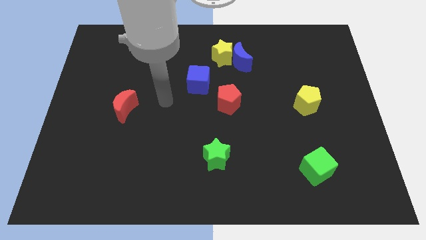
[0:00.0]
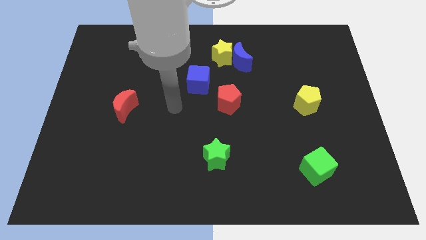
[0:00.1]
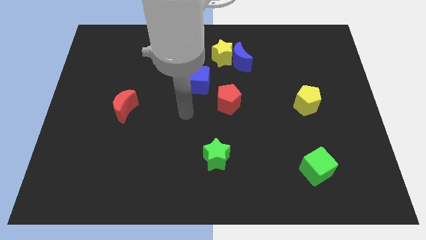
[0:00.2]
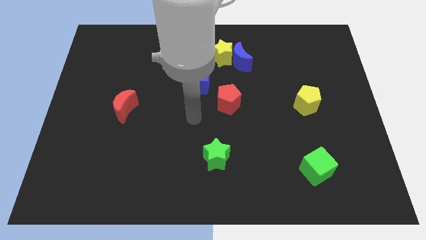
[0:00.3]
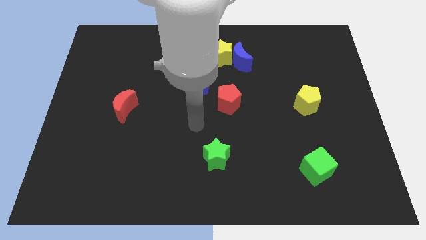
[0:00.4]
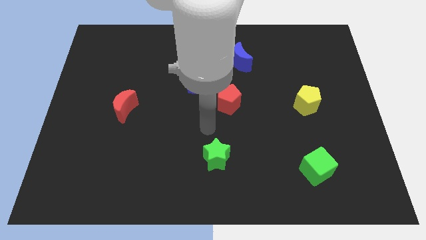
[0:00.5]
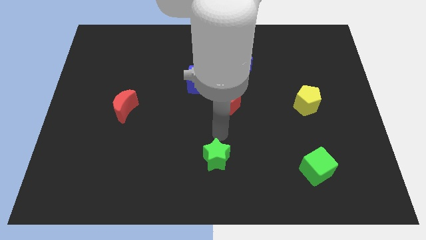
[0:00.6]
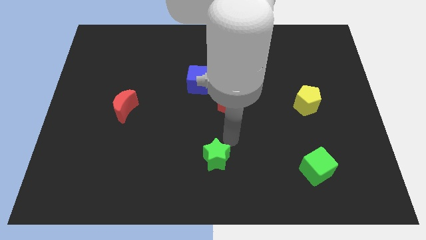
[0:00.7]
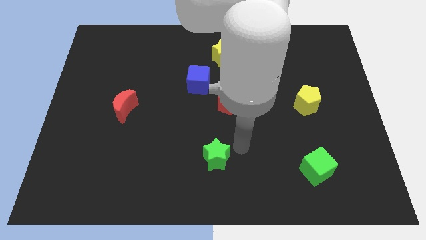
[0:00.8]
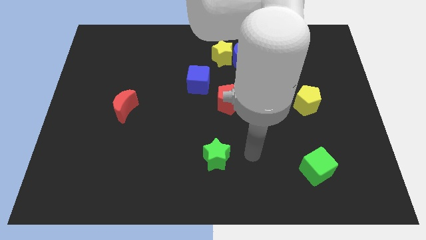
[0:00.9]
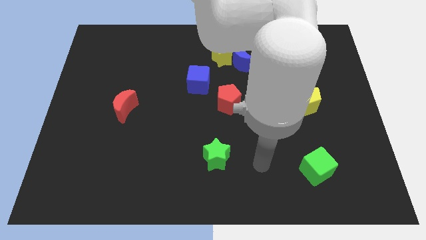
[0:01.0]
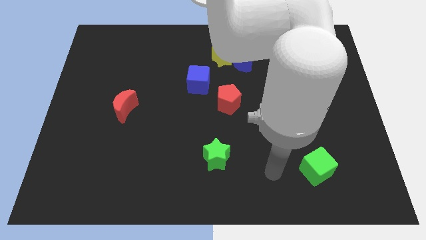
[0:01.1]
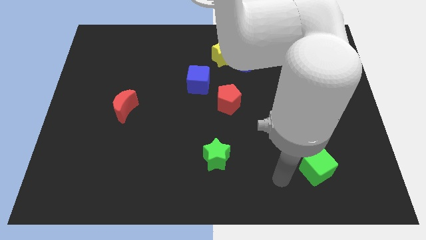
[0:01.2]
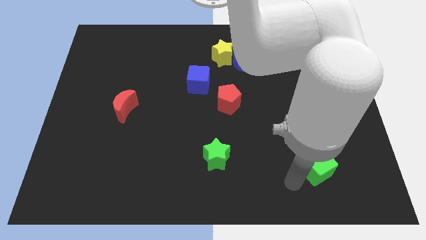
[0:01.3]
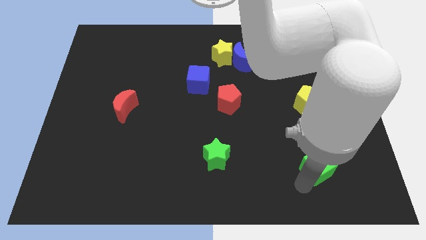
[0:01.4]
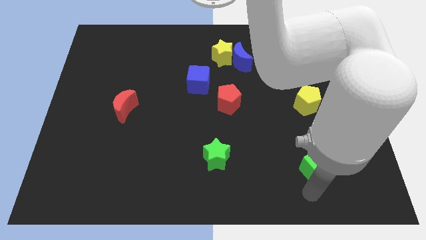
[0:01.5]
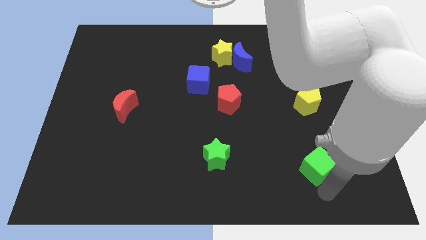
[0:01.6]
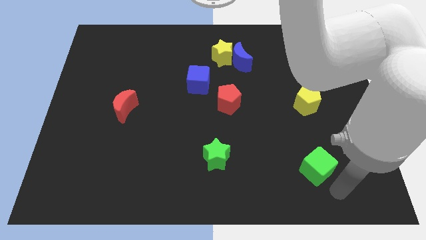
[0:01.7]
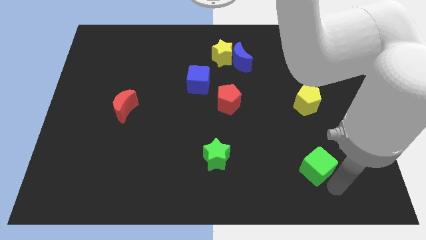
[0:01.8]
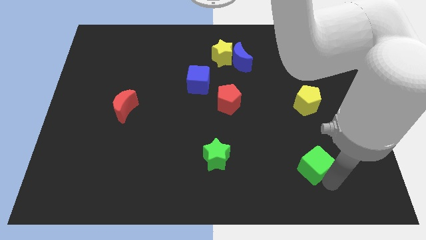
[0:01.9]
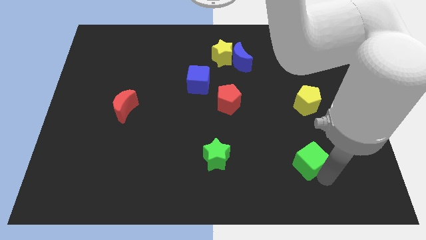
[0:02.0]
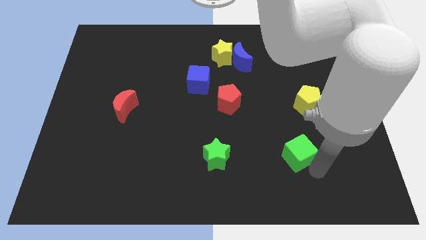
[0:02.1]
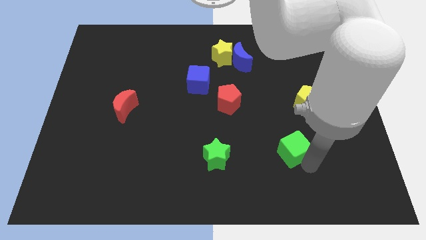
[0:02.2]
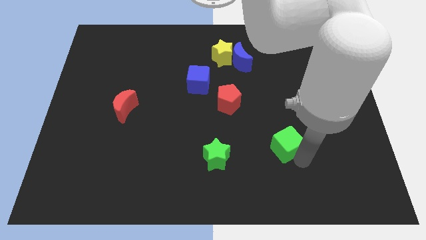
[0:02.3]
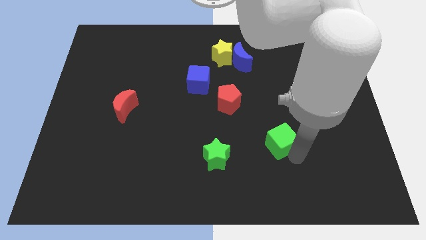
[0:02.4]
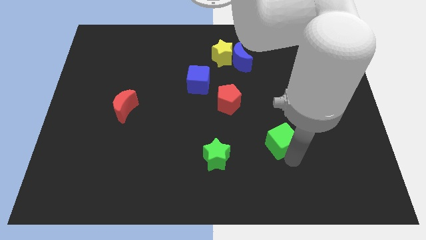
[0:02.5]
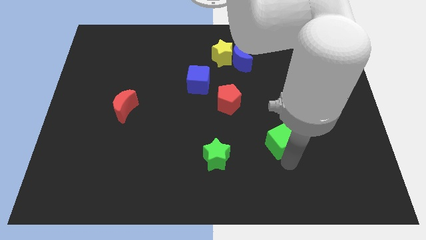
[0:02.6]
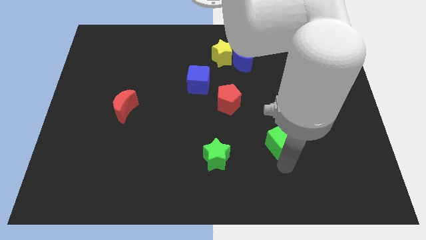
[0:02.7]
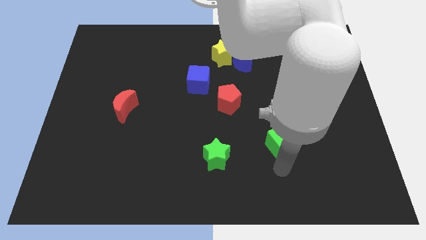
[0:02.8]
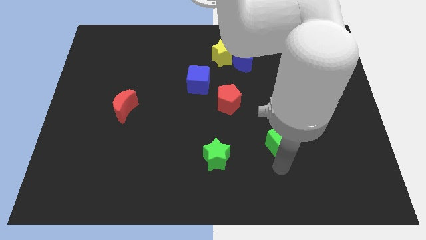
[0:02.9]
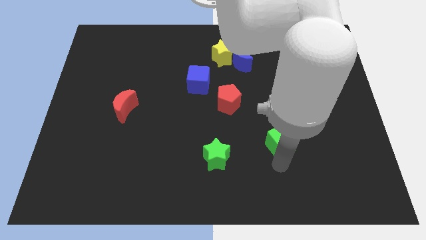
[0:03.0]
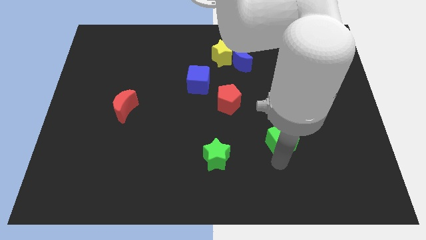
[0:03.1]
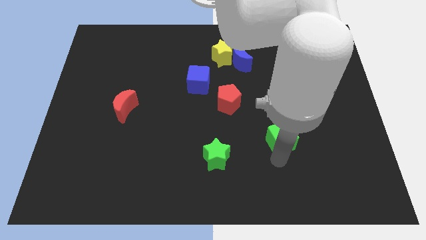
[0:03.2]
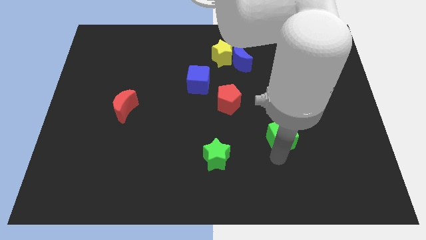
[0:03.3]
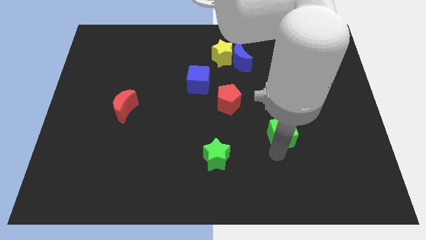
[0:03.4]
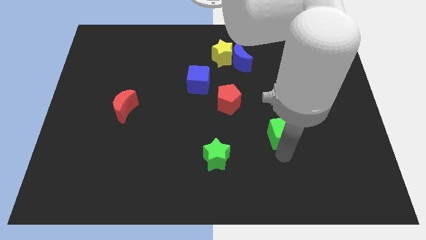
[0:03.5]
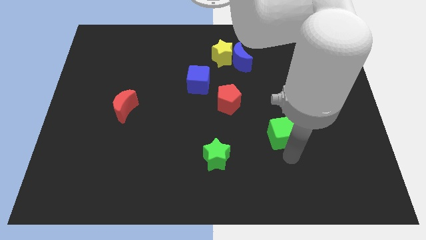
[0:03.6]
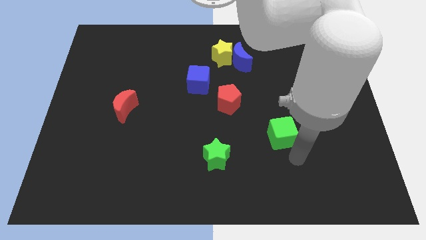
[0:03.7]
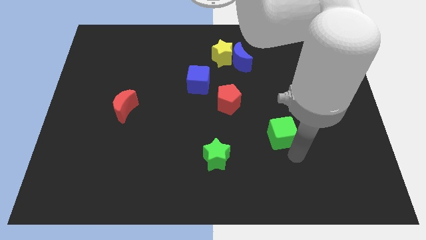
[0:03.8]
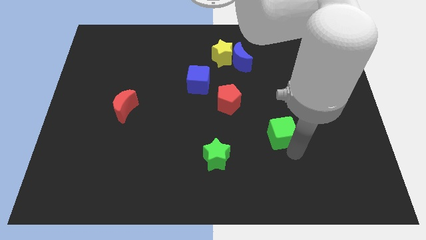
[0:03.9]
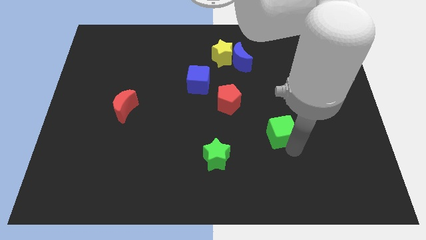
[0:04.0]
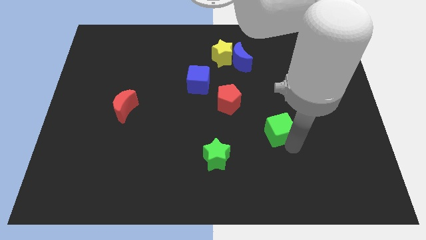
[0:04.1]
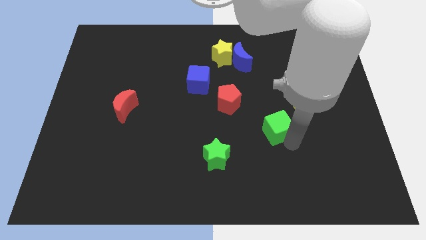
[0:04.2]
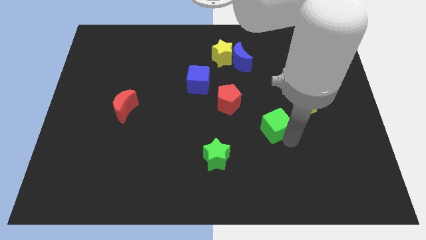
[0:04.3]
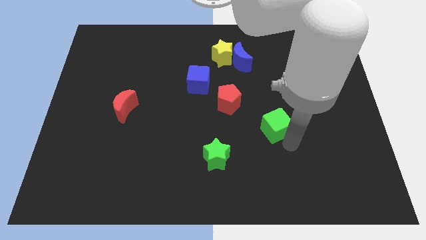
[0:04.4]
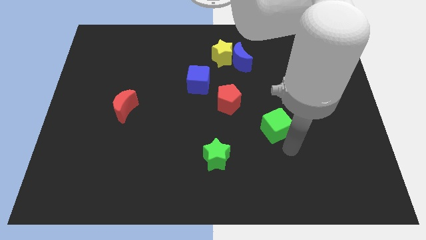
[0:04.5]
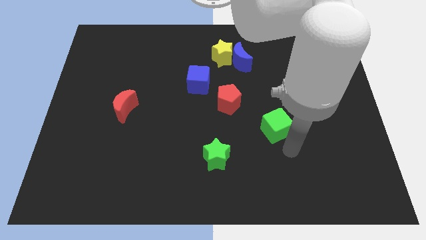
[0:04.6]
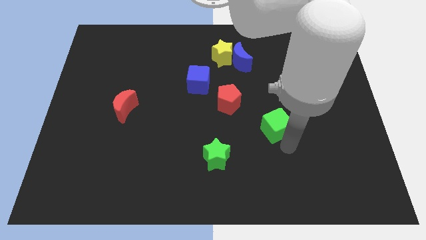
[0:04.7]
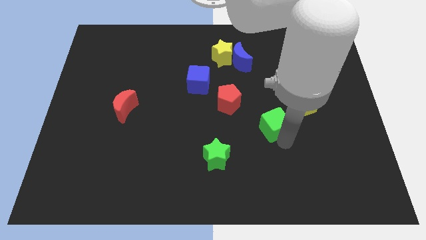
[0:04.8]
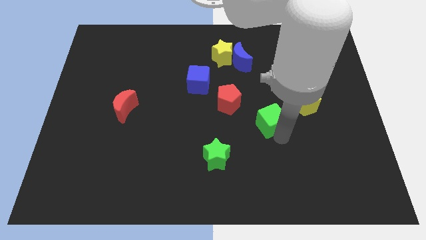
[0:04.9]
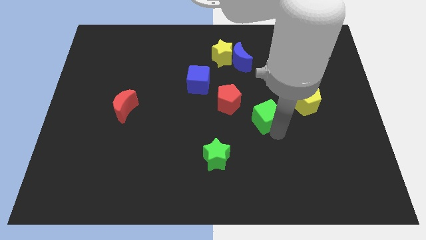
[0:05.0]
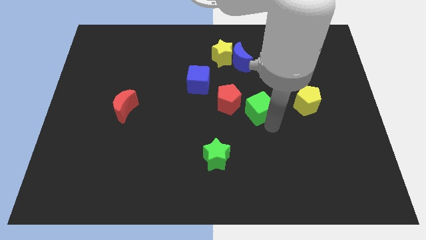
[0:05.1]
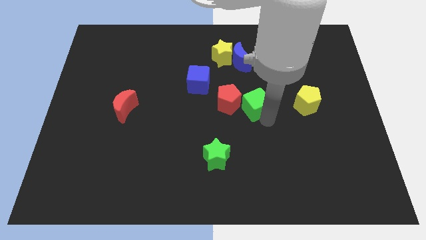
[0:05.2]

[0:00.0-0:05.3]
move the green cube below the blue moon

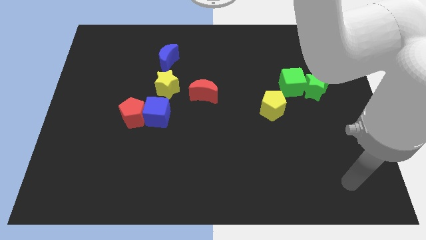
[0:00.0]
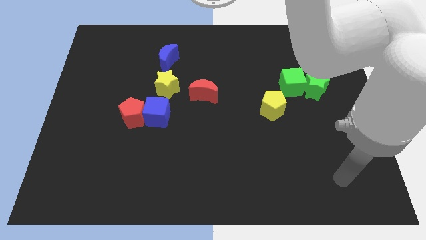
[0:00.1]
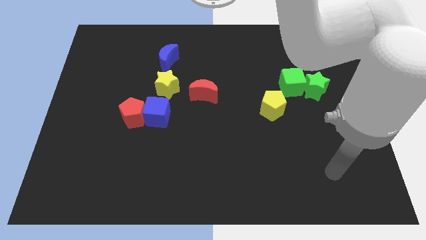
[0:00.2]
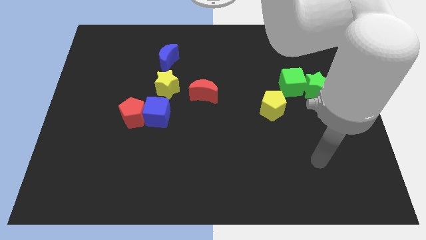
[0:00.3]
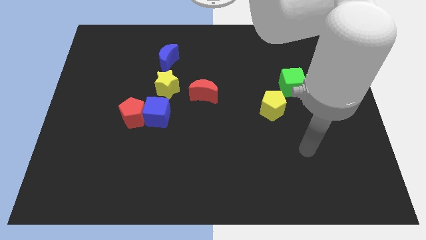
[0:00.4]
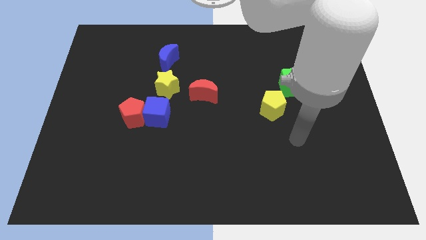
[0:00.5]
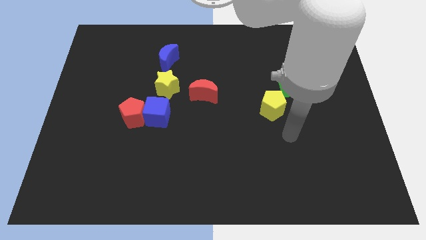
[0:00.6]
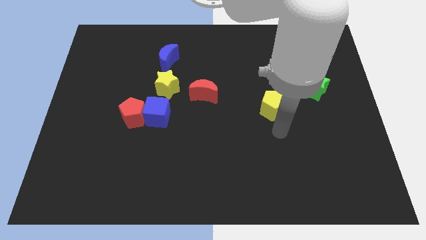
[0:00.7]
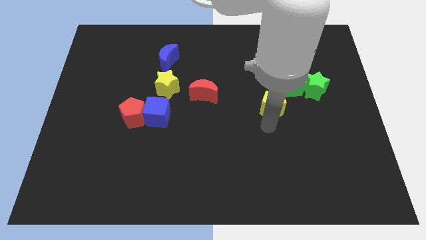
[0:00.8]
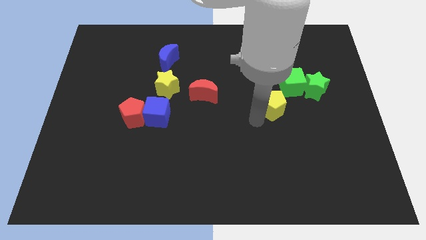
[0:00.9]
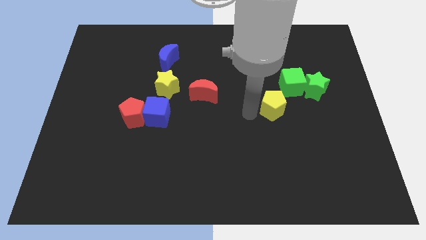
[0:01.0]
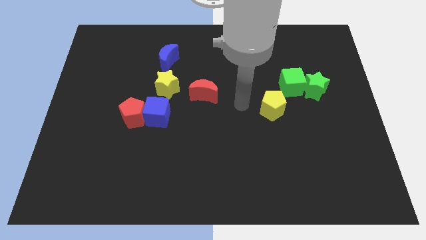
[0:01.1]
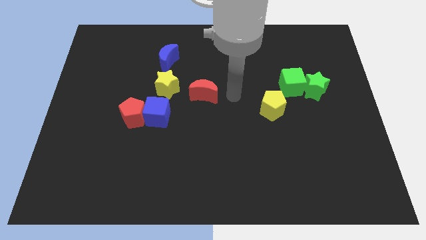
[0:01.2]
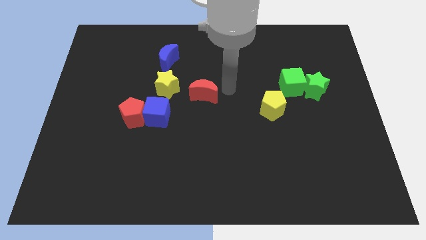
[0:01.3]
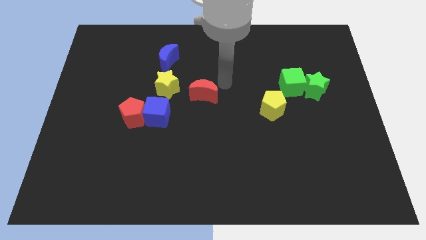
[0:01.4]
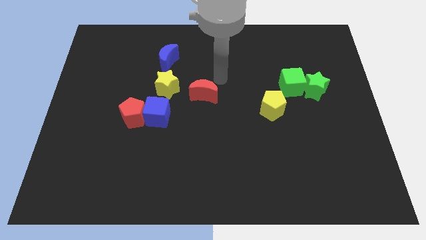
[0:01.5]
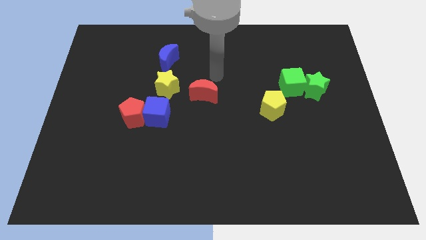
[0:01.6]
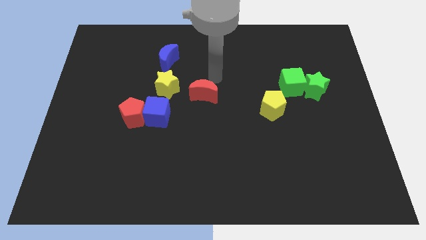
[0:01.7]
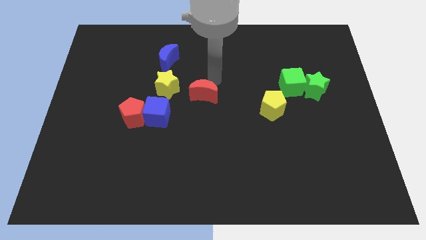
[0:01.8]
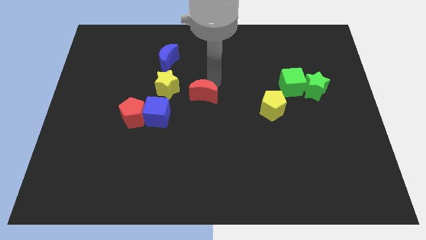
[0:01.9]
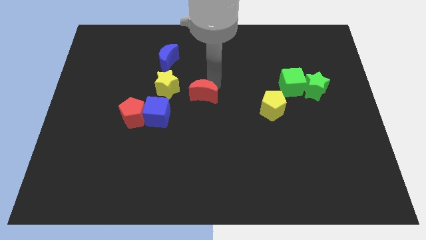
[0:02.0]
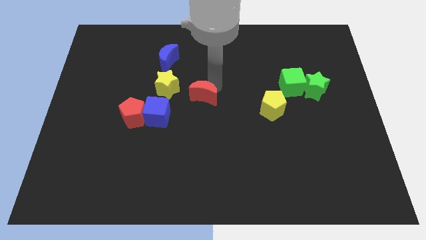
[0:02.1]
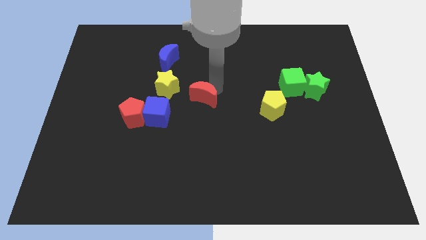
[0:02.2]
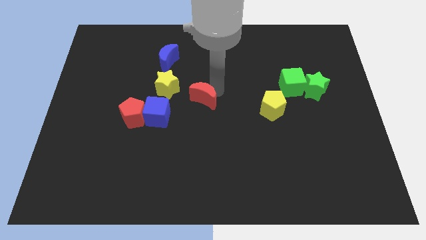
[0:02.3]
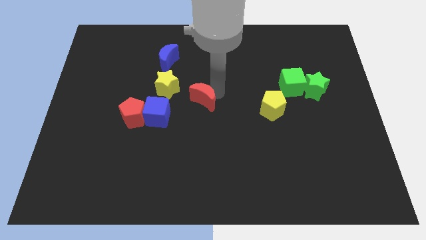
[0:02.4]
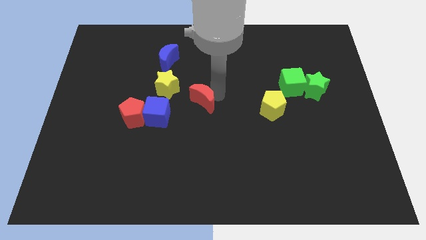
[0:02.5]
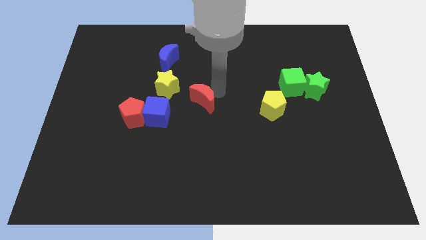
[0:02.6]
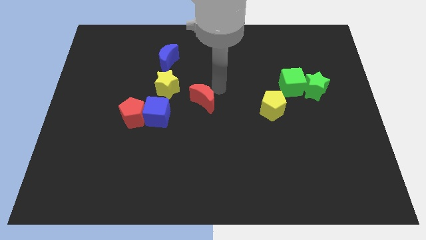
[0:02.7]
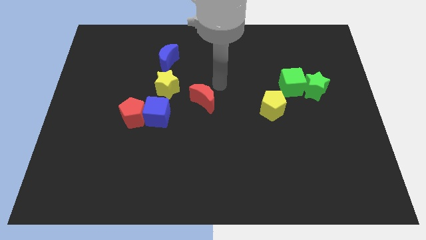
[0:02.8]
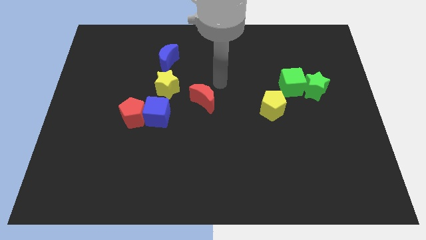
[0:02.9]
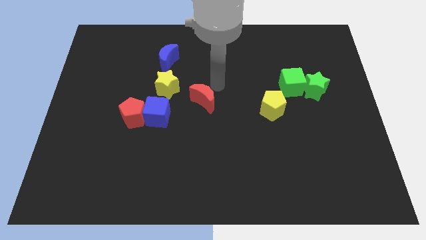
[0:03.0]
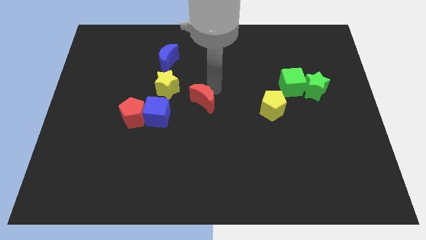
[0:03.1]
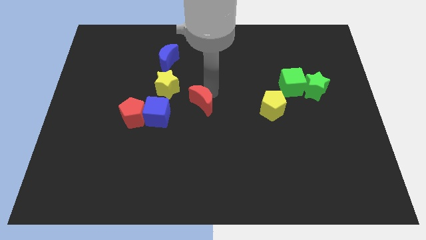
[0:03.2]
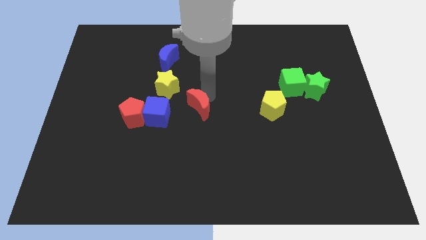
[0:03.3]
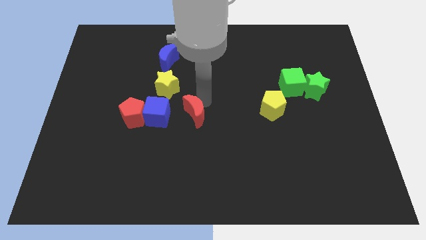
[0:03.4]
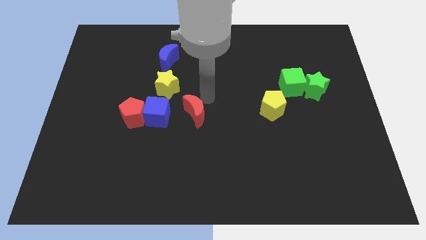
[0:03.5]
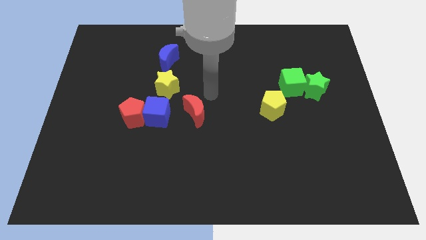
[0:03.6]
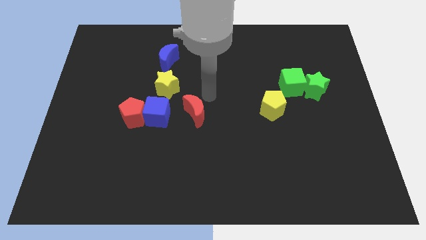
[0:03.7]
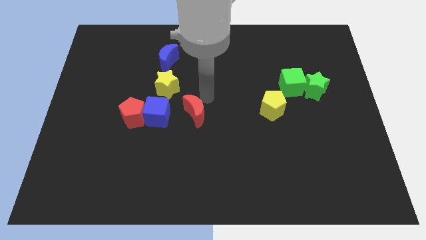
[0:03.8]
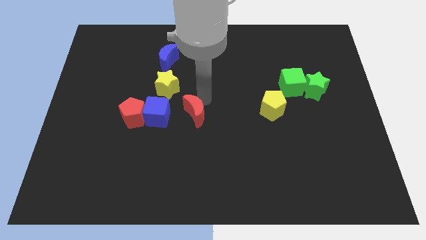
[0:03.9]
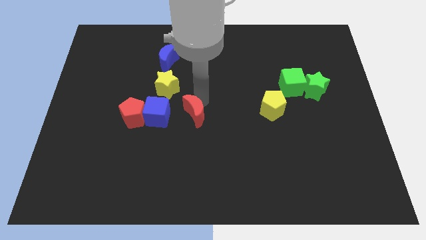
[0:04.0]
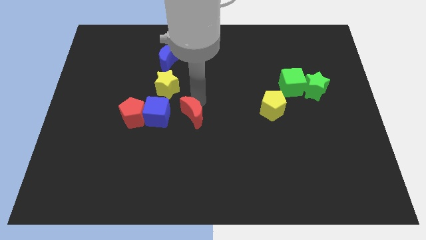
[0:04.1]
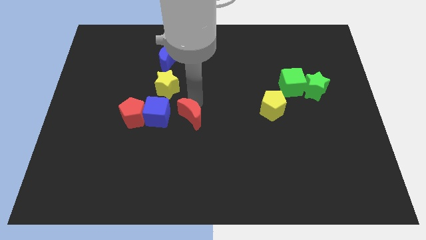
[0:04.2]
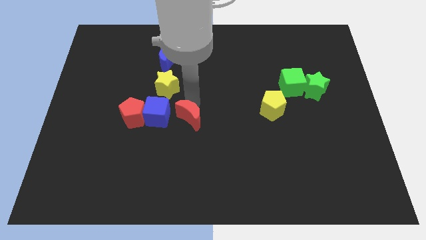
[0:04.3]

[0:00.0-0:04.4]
push the red moon diagonally down and to the right of the blue cube
